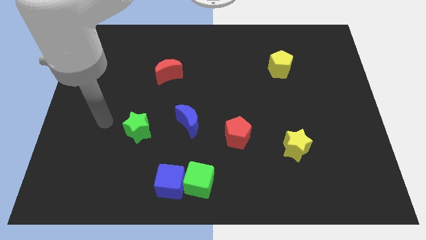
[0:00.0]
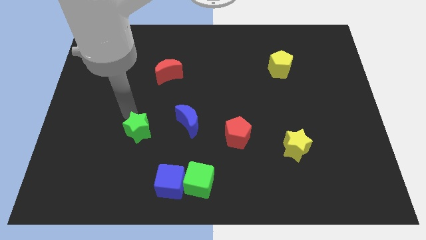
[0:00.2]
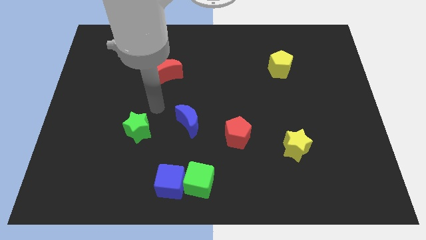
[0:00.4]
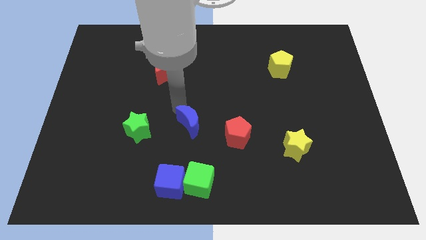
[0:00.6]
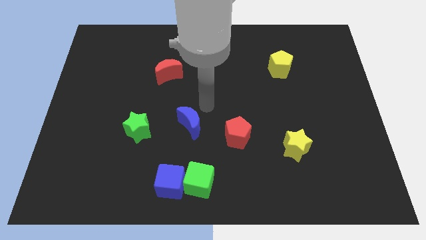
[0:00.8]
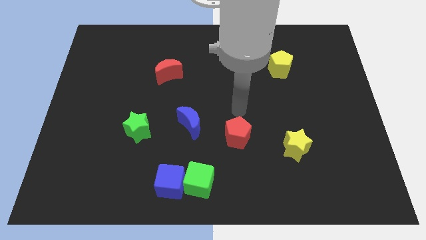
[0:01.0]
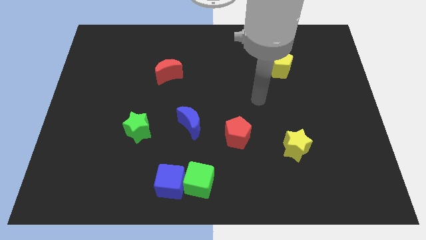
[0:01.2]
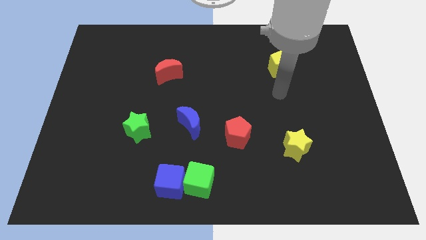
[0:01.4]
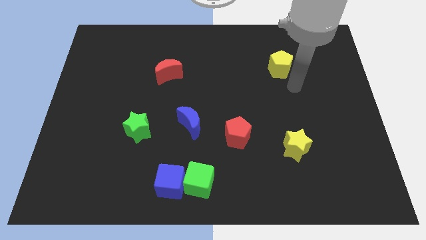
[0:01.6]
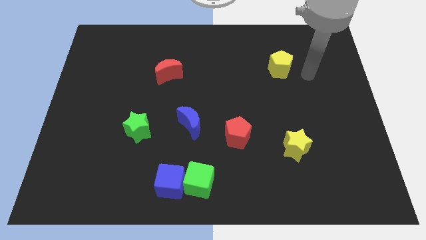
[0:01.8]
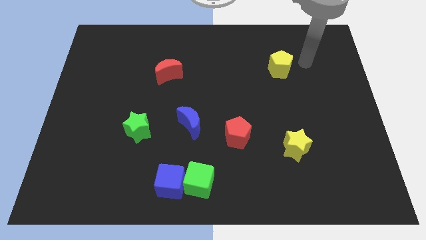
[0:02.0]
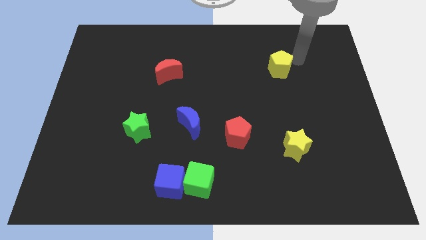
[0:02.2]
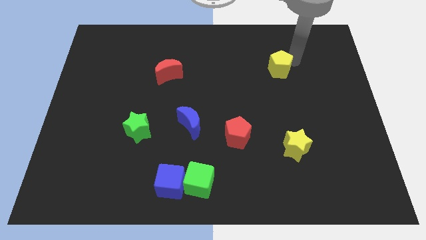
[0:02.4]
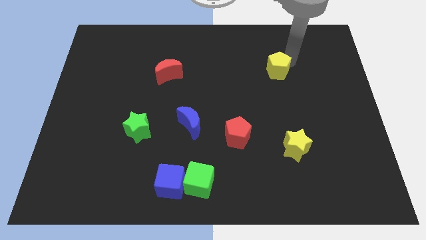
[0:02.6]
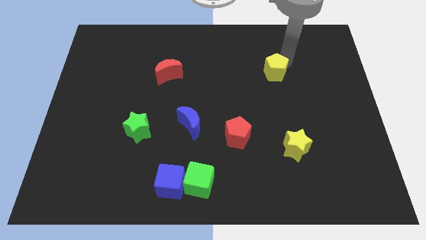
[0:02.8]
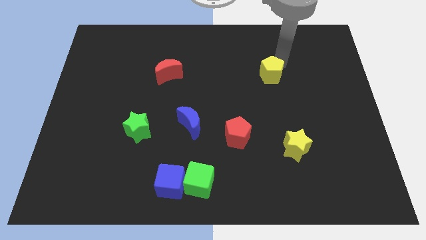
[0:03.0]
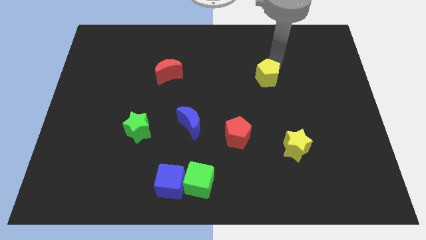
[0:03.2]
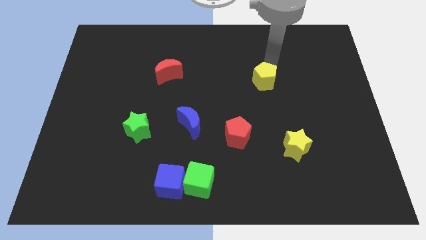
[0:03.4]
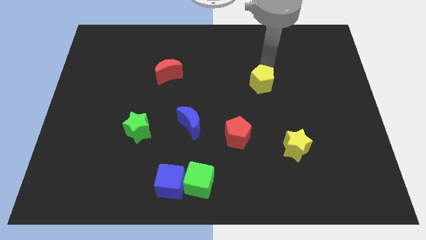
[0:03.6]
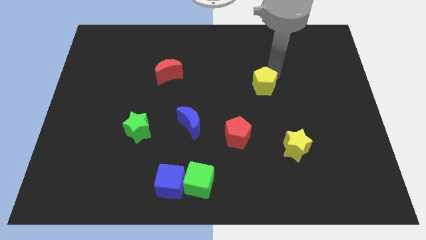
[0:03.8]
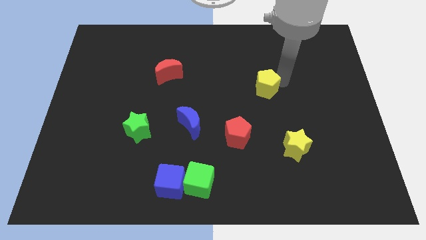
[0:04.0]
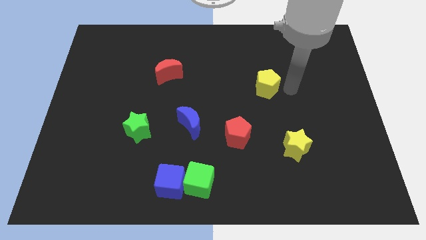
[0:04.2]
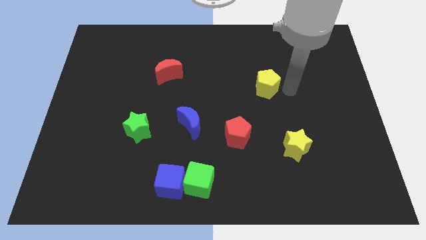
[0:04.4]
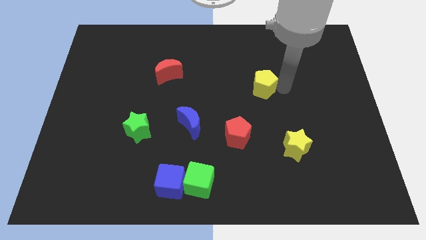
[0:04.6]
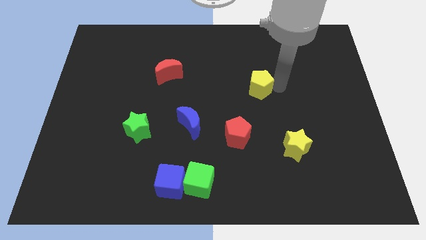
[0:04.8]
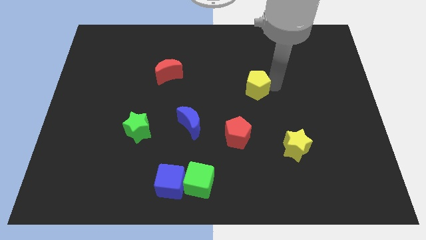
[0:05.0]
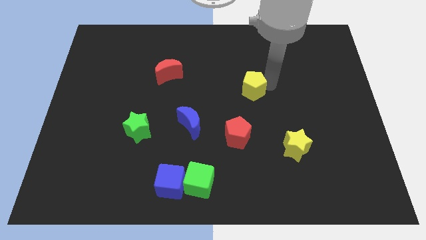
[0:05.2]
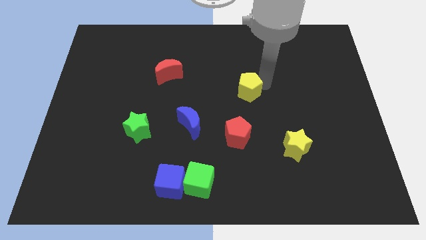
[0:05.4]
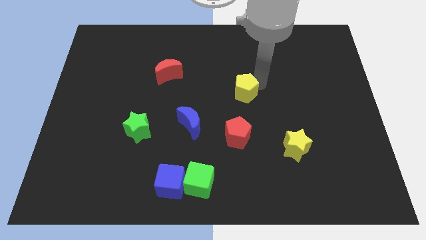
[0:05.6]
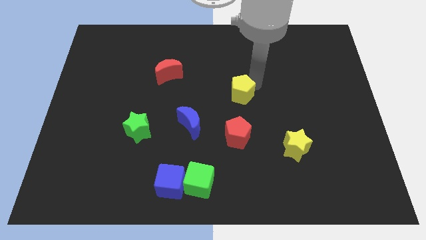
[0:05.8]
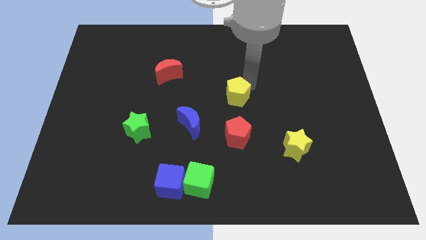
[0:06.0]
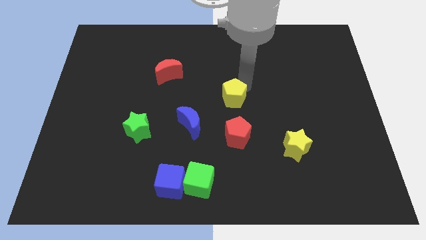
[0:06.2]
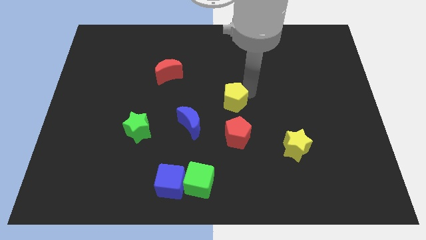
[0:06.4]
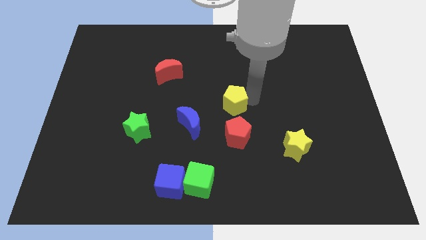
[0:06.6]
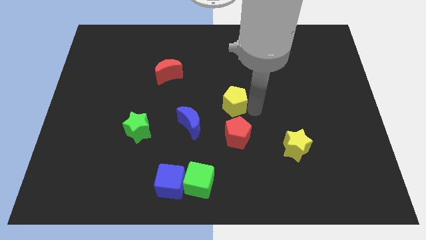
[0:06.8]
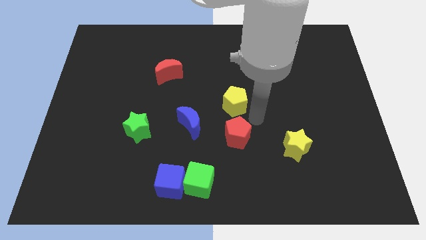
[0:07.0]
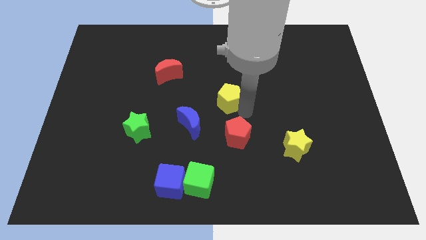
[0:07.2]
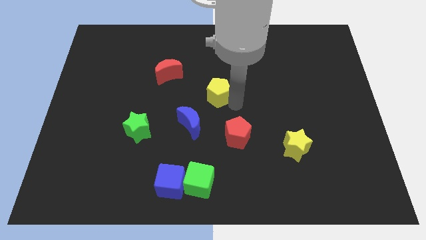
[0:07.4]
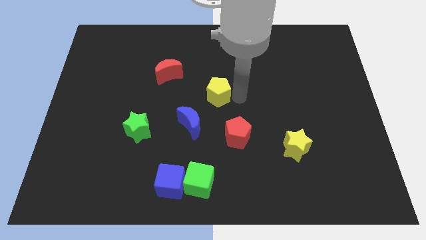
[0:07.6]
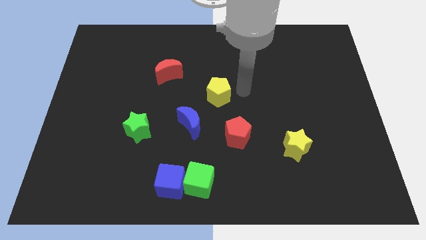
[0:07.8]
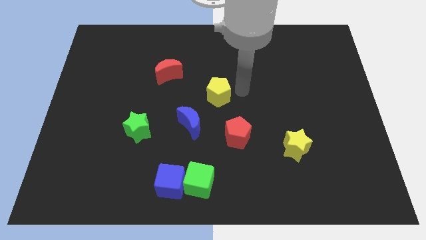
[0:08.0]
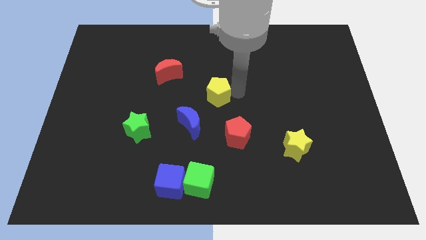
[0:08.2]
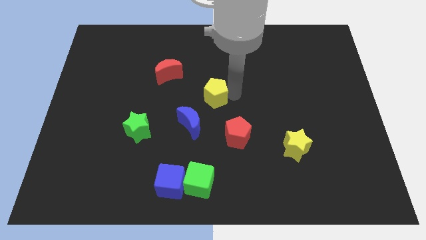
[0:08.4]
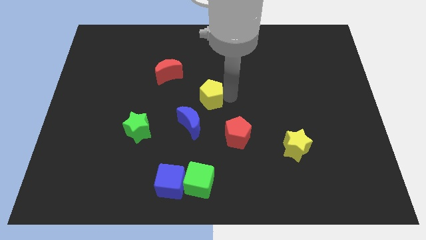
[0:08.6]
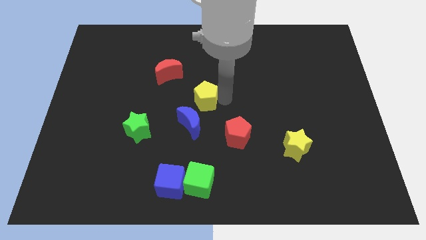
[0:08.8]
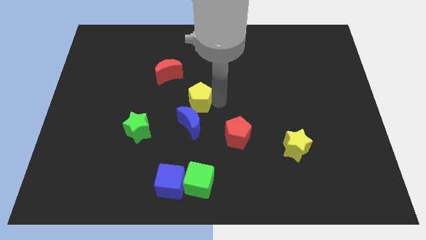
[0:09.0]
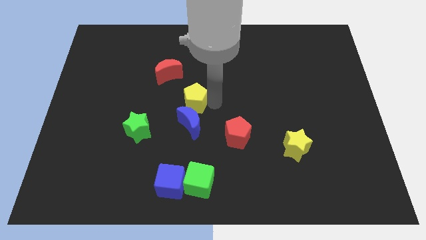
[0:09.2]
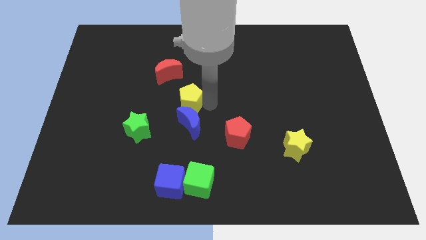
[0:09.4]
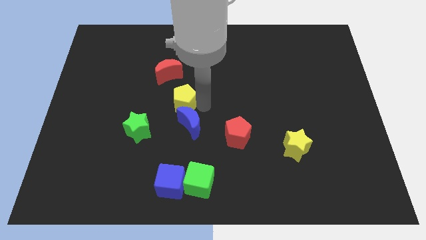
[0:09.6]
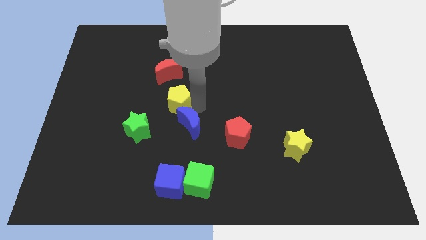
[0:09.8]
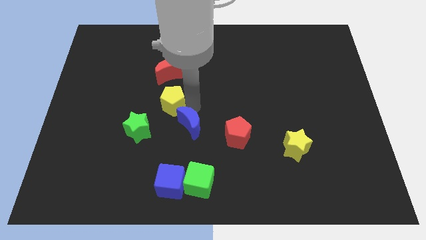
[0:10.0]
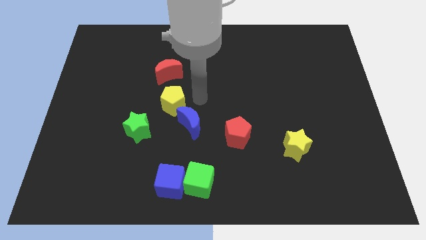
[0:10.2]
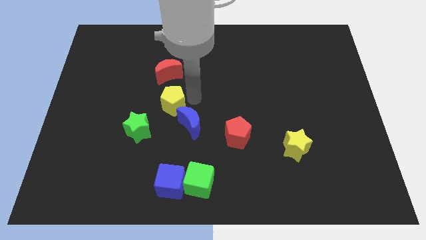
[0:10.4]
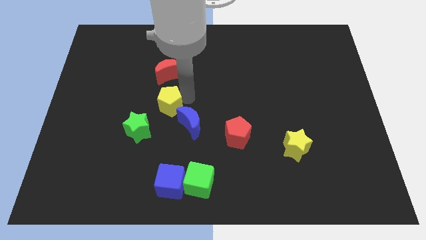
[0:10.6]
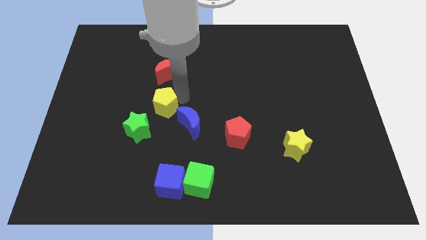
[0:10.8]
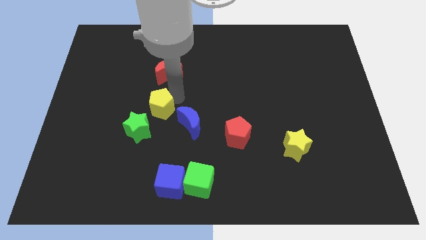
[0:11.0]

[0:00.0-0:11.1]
slide the yellow pentagon to the left of the blue moon

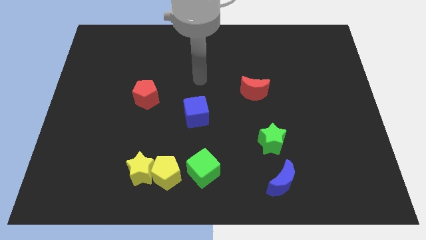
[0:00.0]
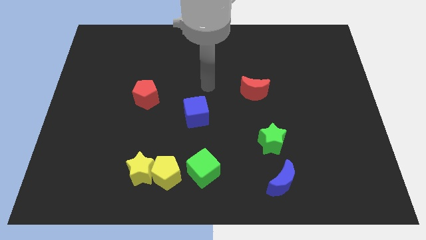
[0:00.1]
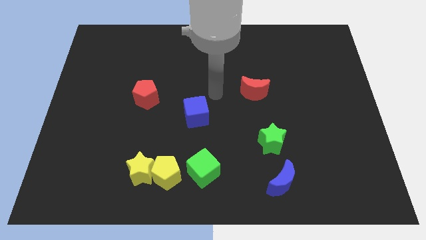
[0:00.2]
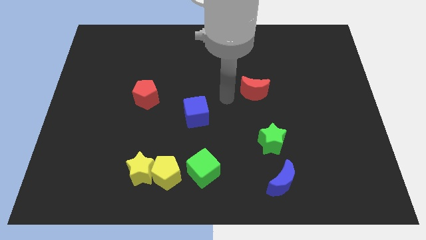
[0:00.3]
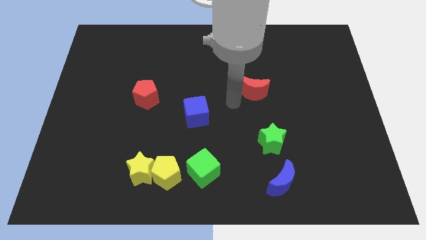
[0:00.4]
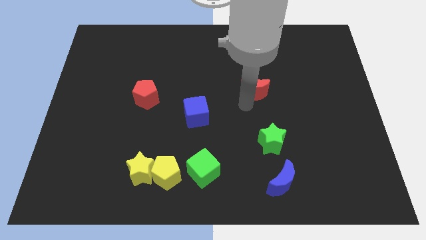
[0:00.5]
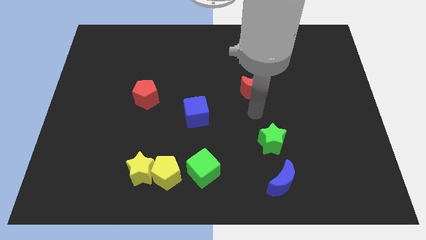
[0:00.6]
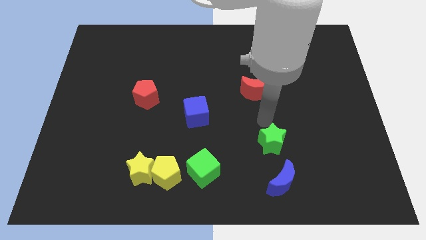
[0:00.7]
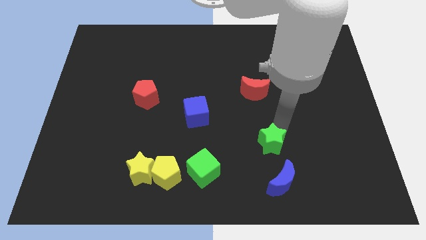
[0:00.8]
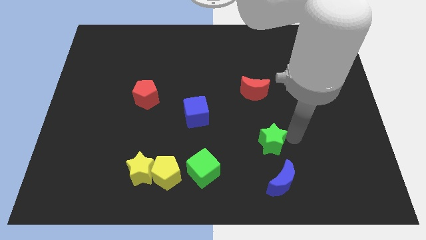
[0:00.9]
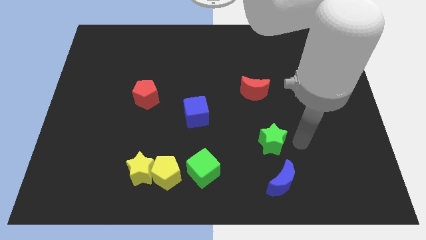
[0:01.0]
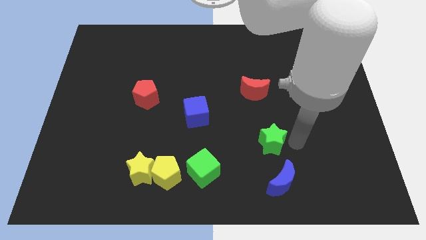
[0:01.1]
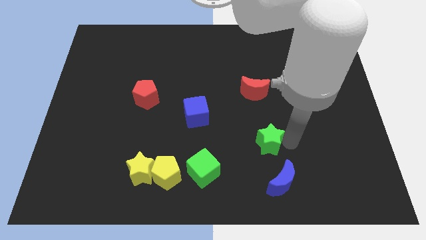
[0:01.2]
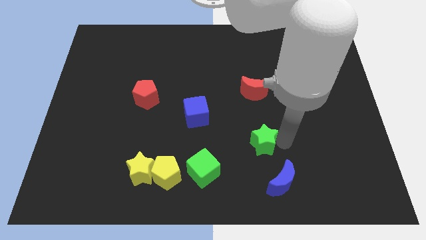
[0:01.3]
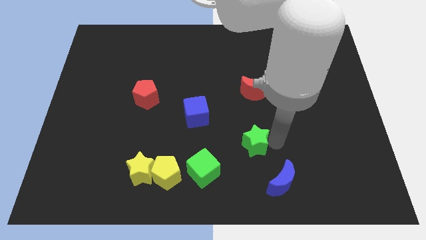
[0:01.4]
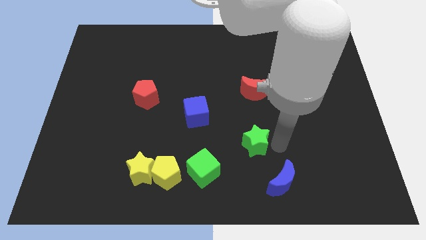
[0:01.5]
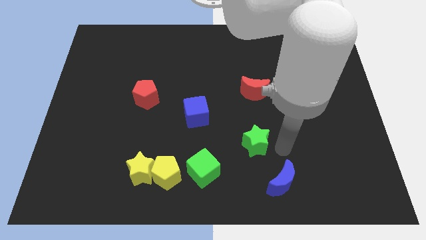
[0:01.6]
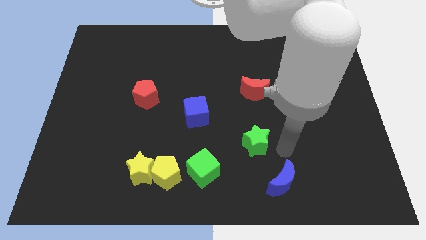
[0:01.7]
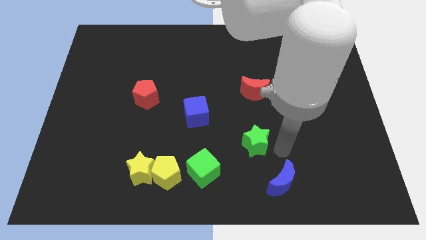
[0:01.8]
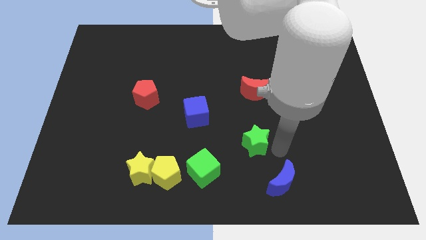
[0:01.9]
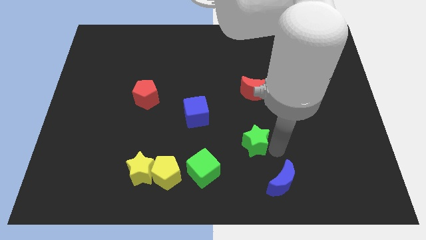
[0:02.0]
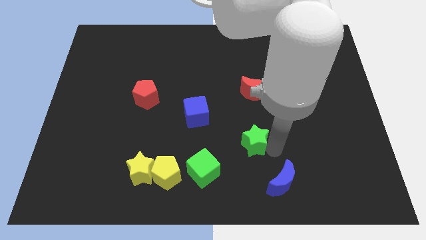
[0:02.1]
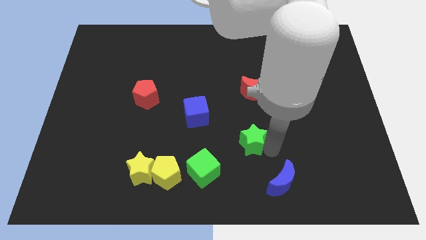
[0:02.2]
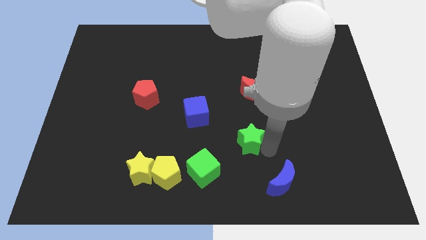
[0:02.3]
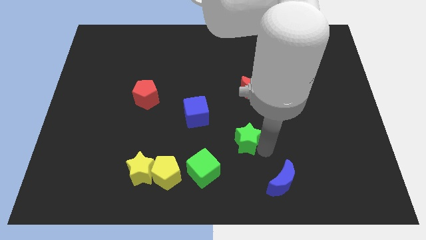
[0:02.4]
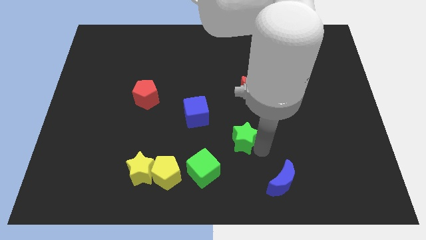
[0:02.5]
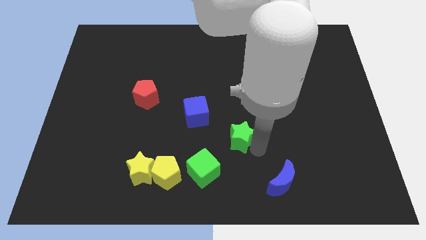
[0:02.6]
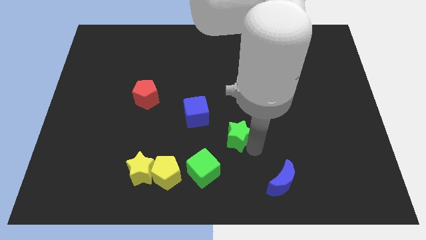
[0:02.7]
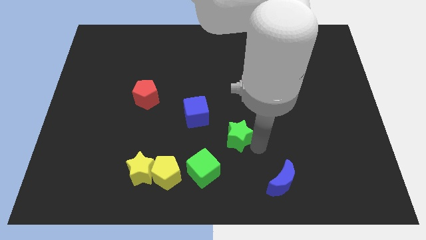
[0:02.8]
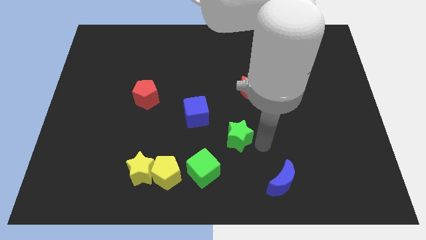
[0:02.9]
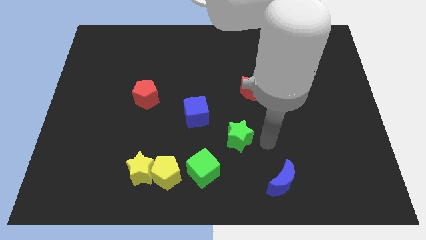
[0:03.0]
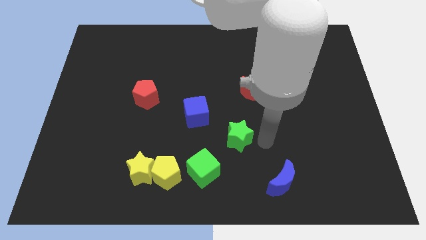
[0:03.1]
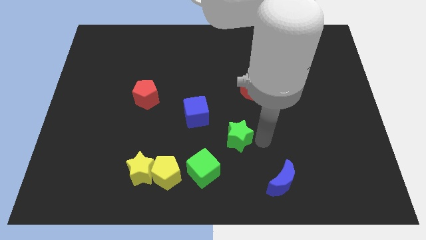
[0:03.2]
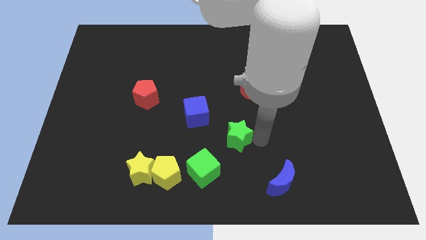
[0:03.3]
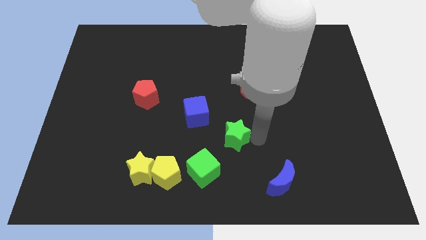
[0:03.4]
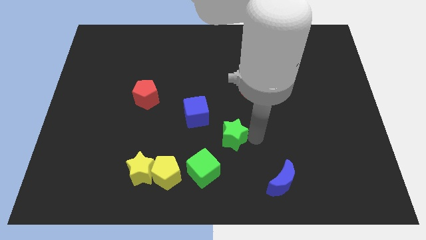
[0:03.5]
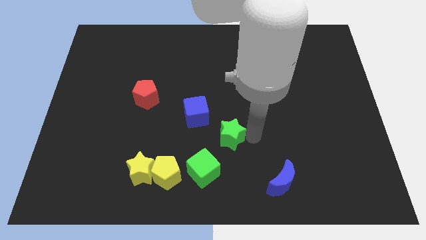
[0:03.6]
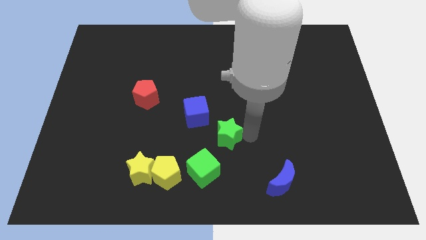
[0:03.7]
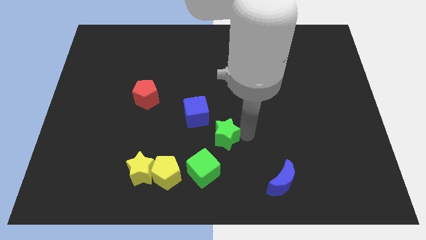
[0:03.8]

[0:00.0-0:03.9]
put the green star to the top of the green cube
